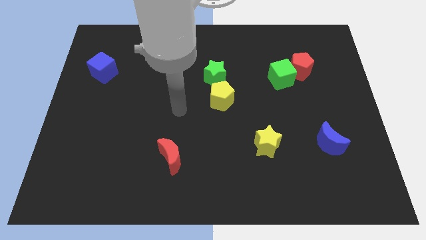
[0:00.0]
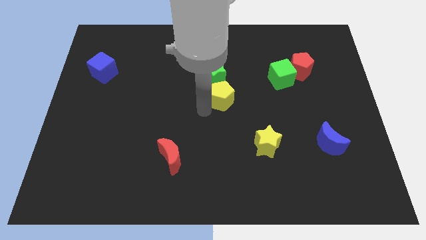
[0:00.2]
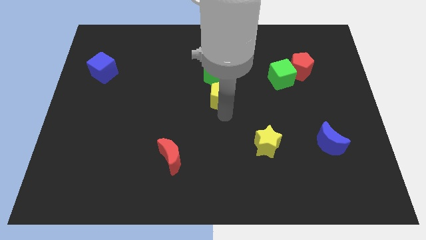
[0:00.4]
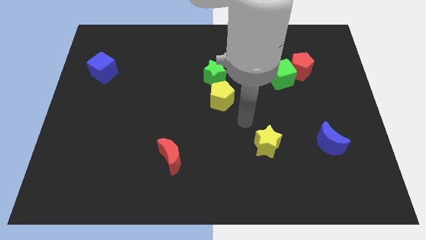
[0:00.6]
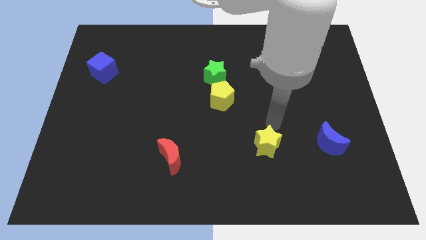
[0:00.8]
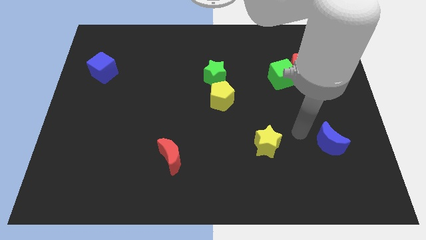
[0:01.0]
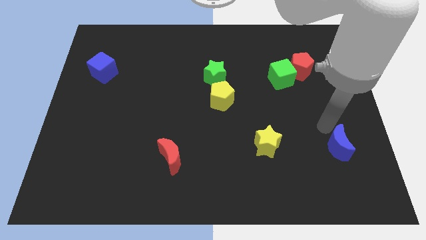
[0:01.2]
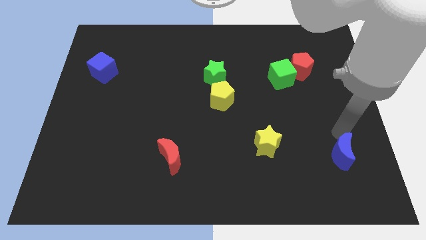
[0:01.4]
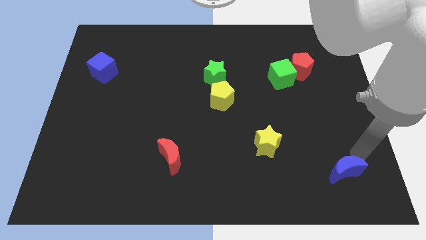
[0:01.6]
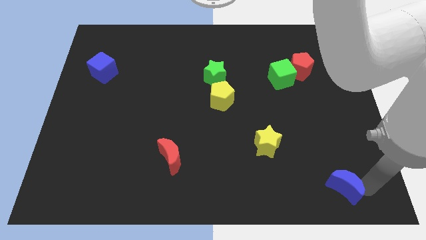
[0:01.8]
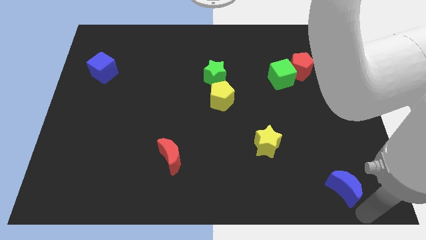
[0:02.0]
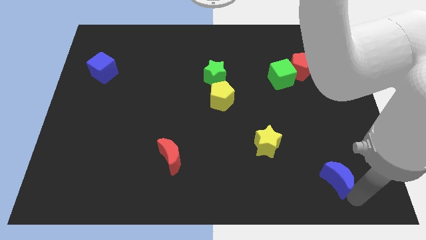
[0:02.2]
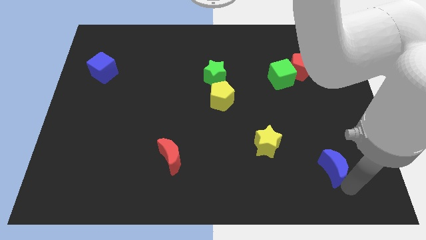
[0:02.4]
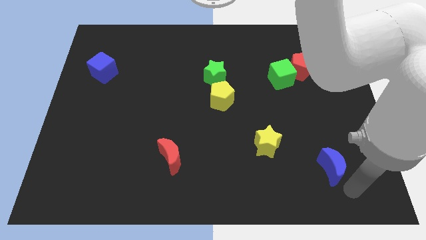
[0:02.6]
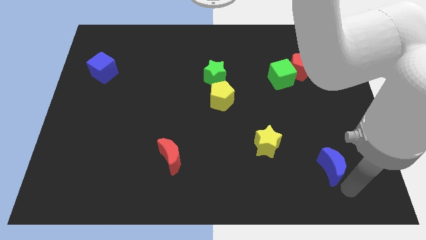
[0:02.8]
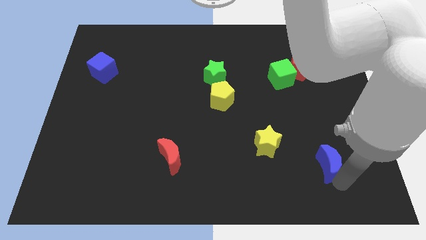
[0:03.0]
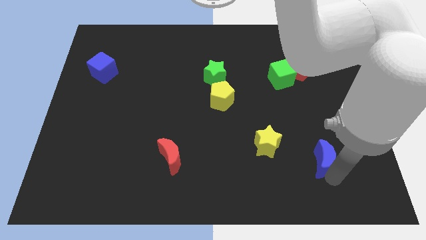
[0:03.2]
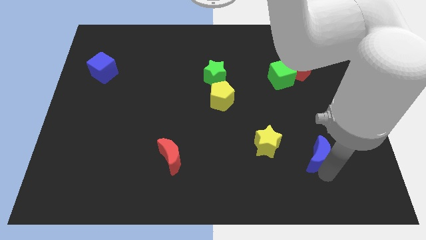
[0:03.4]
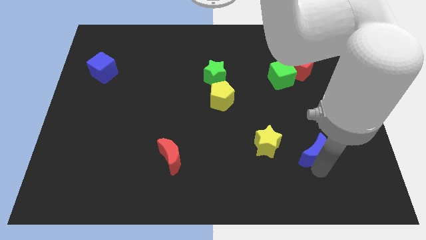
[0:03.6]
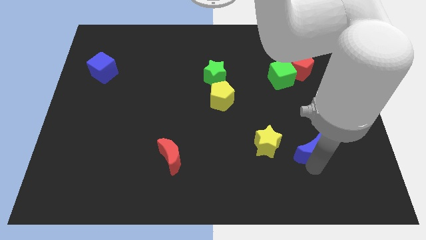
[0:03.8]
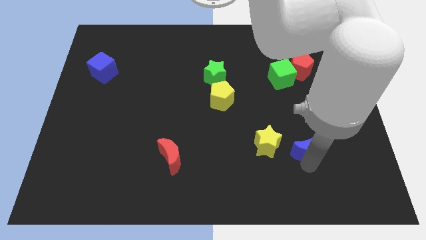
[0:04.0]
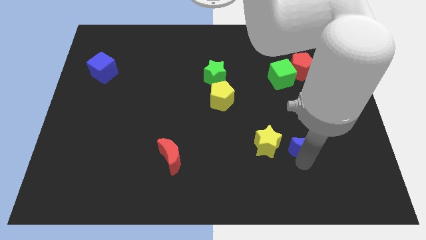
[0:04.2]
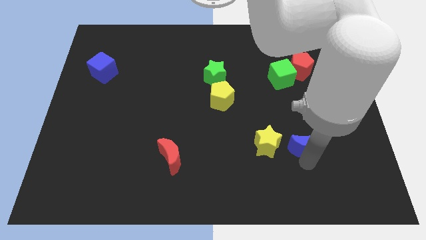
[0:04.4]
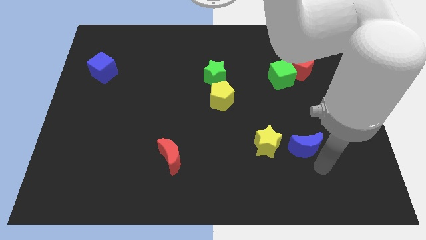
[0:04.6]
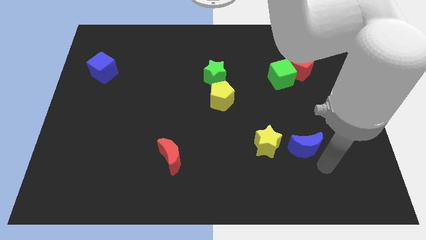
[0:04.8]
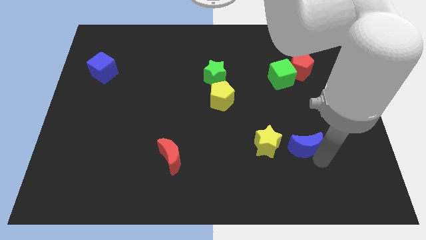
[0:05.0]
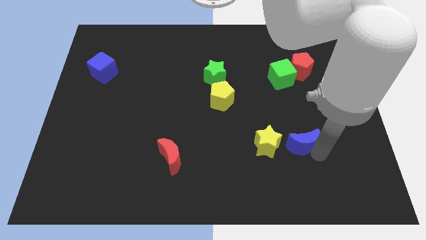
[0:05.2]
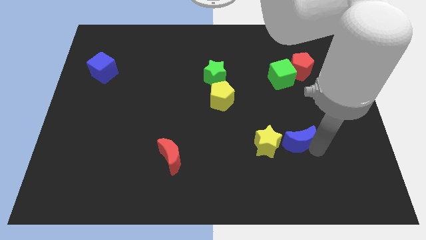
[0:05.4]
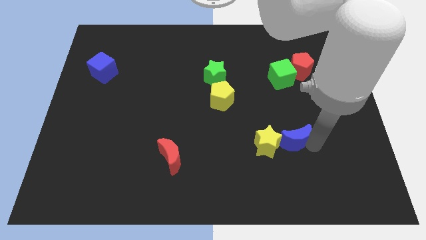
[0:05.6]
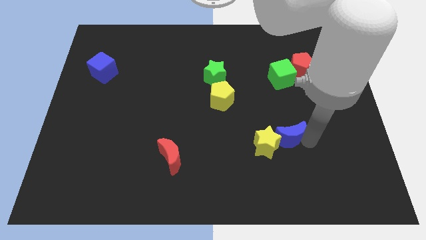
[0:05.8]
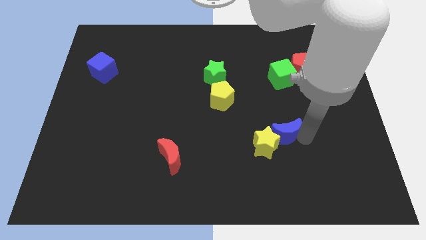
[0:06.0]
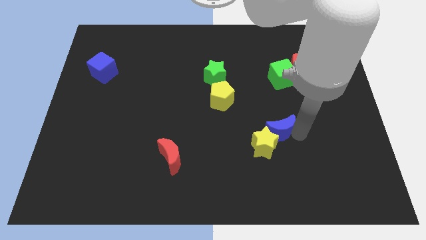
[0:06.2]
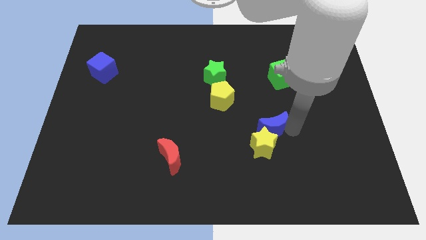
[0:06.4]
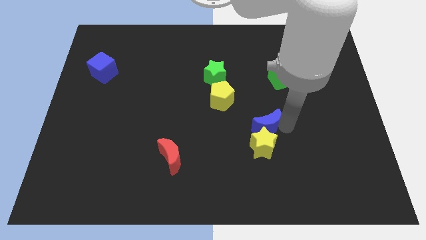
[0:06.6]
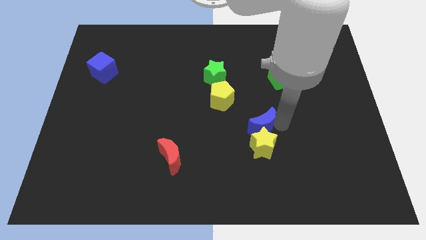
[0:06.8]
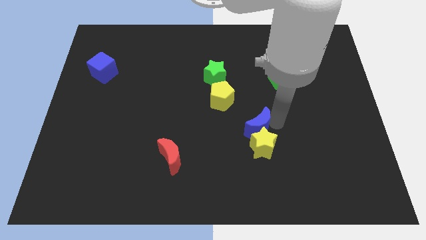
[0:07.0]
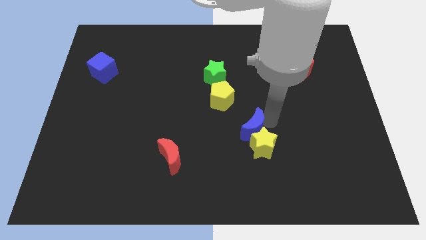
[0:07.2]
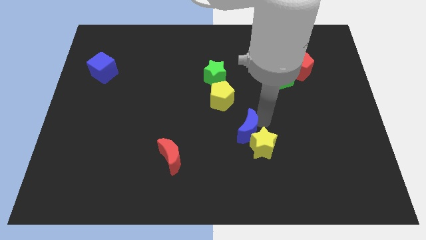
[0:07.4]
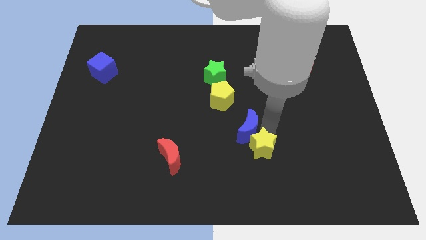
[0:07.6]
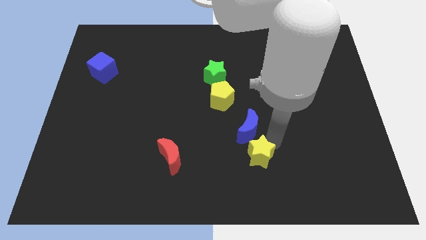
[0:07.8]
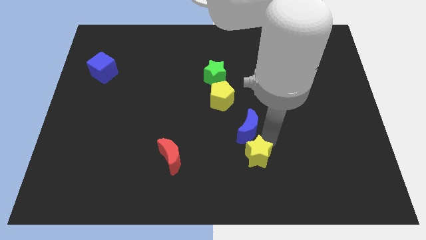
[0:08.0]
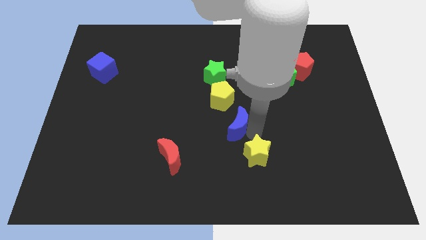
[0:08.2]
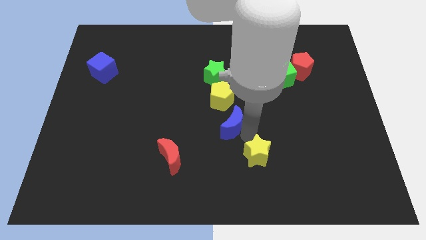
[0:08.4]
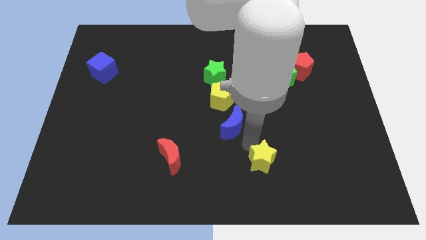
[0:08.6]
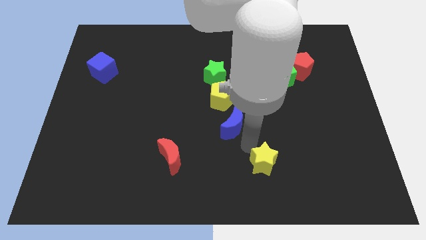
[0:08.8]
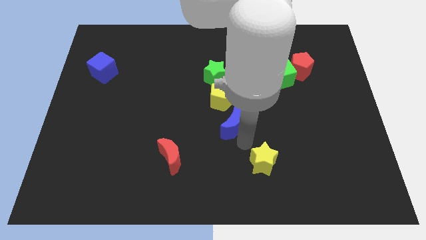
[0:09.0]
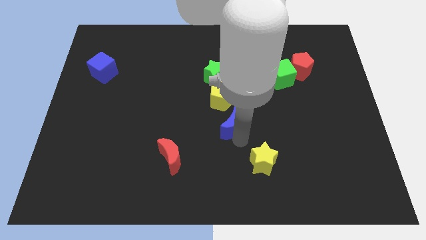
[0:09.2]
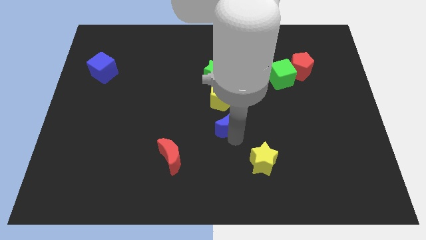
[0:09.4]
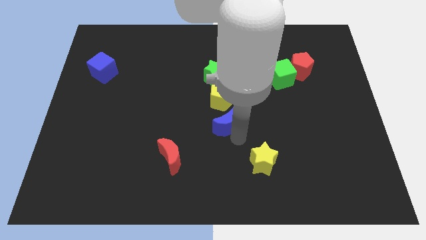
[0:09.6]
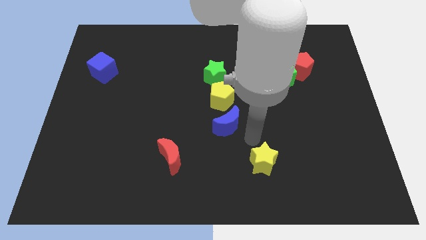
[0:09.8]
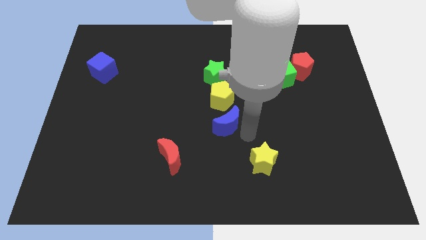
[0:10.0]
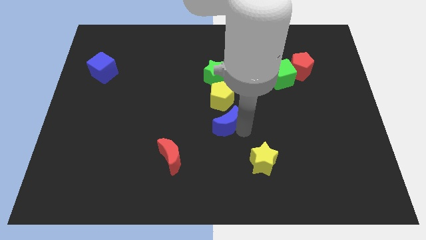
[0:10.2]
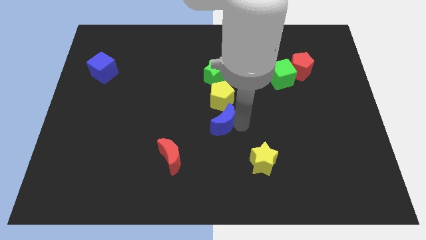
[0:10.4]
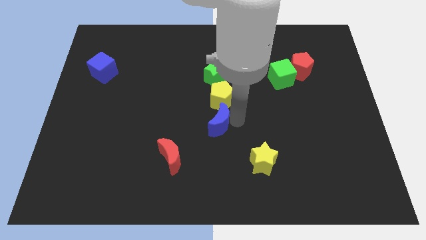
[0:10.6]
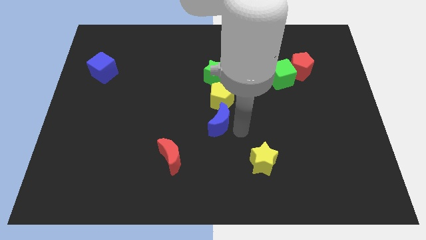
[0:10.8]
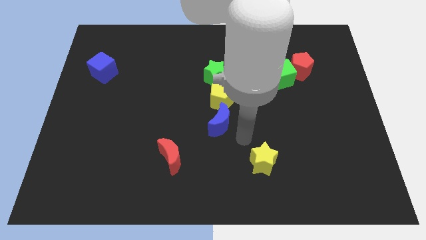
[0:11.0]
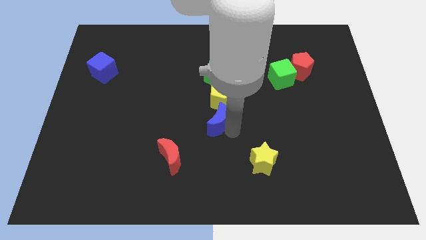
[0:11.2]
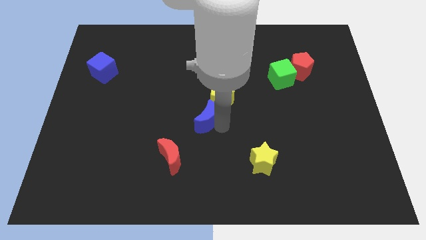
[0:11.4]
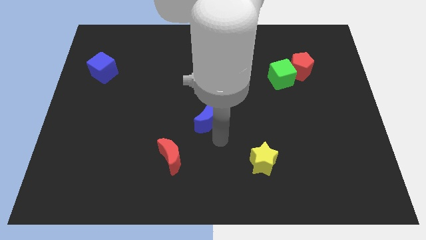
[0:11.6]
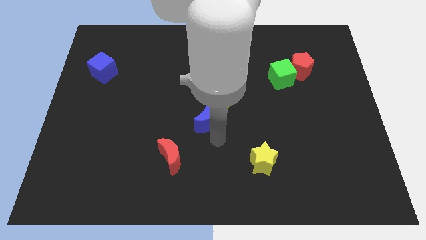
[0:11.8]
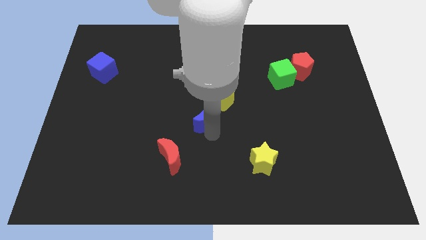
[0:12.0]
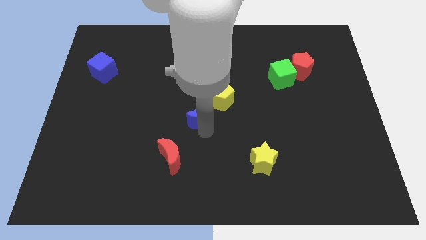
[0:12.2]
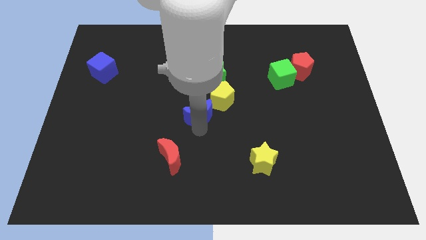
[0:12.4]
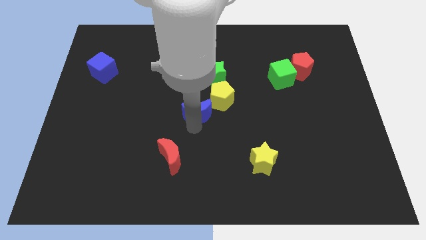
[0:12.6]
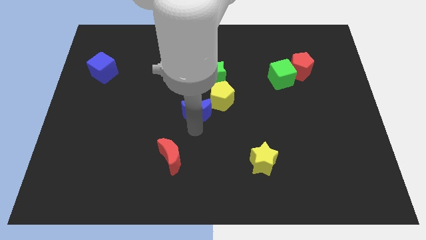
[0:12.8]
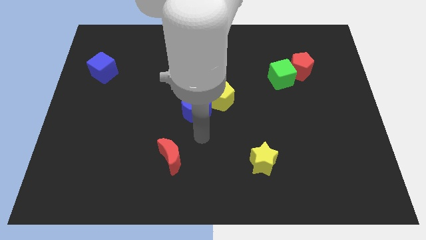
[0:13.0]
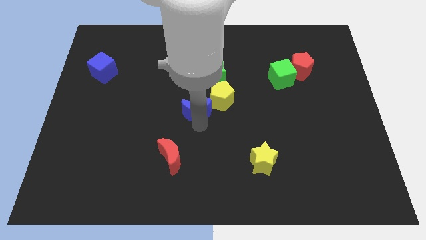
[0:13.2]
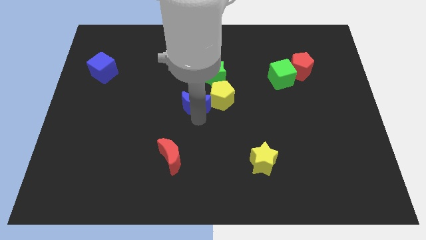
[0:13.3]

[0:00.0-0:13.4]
put the blue moon diagonally down and to the left of the green star

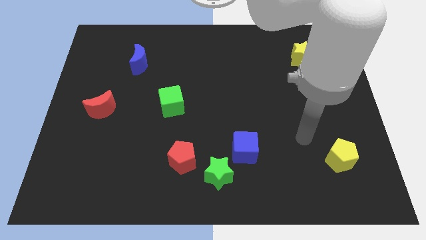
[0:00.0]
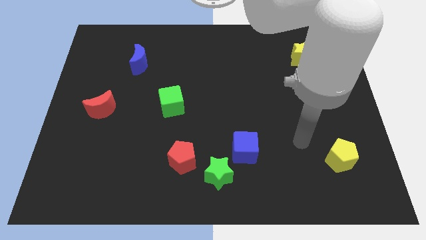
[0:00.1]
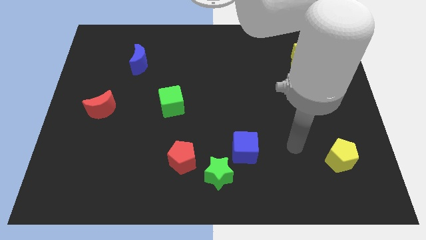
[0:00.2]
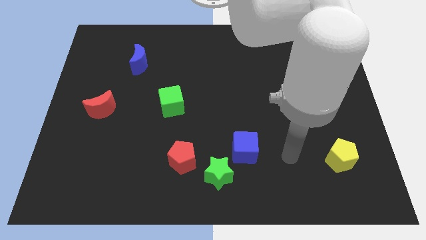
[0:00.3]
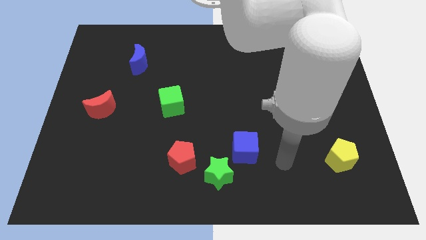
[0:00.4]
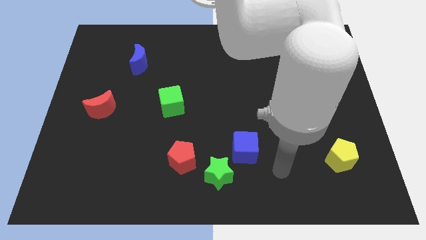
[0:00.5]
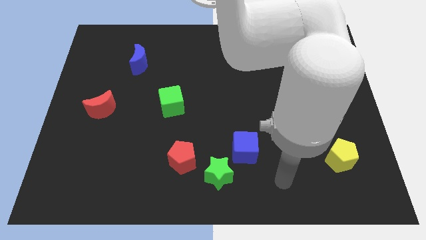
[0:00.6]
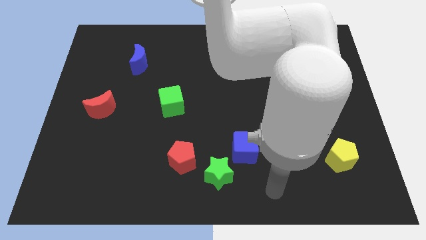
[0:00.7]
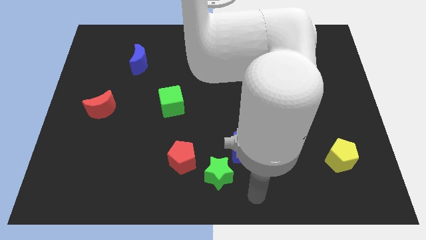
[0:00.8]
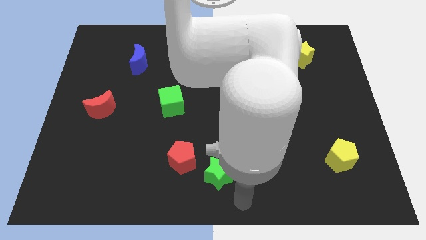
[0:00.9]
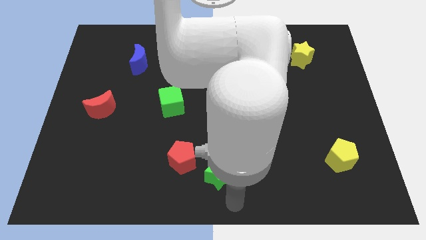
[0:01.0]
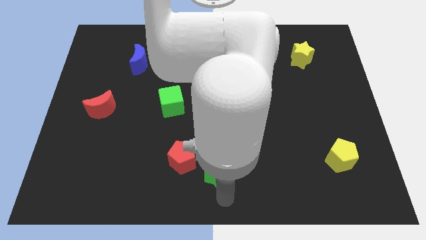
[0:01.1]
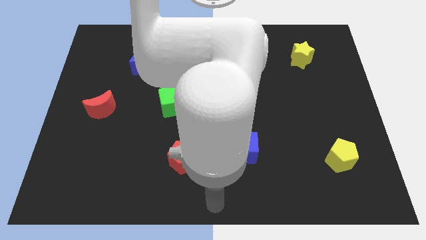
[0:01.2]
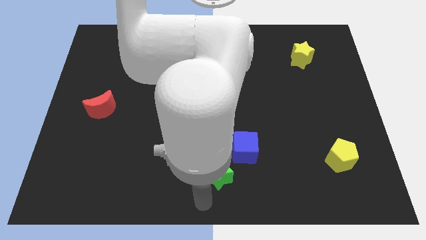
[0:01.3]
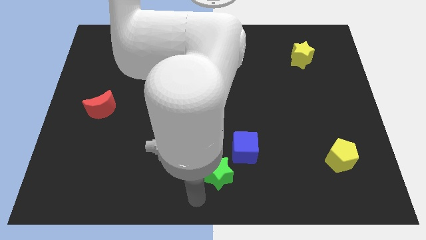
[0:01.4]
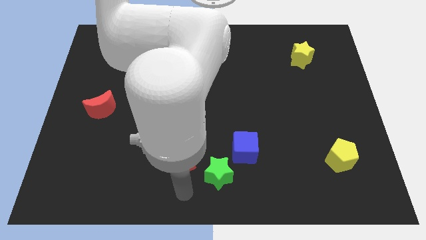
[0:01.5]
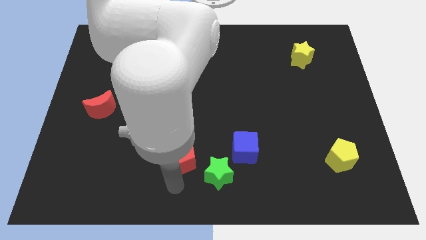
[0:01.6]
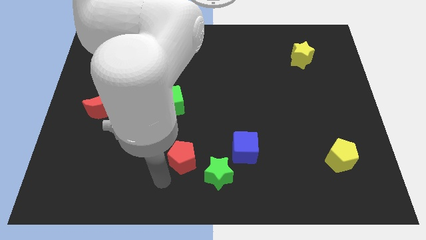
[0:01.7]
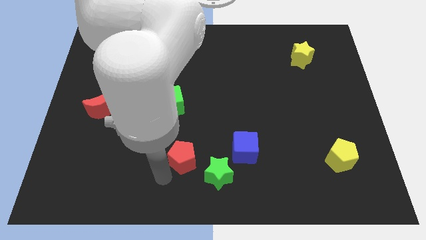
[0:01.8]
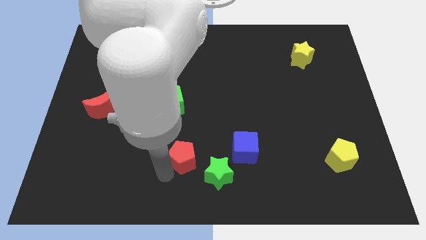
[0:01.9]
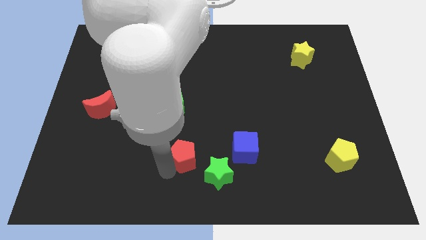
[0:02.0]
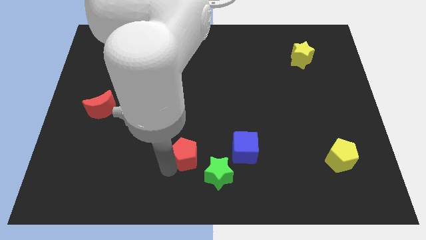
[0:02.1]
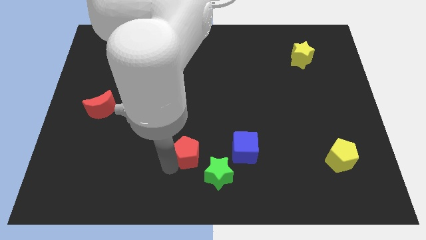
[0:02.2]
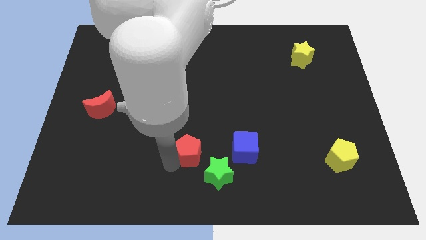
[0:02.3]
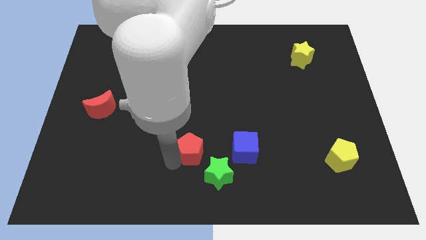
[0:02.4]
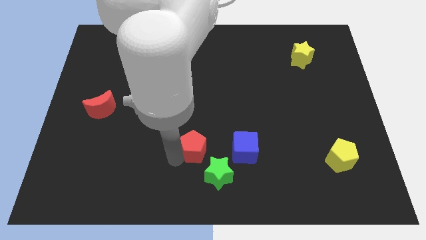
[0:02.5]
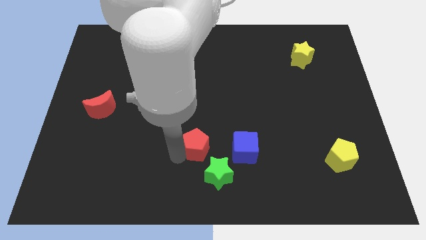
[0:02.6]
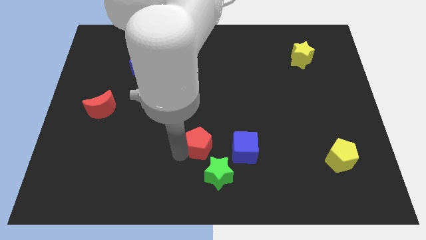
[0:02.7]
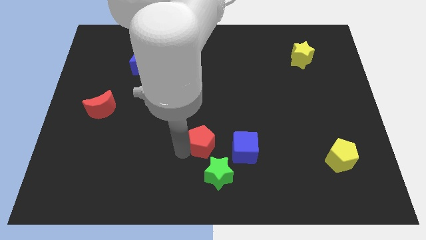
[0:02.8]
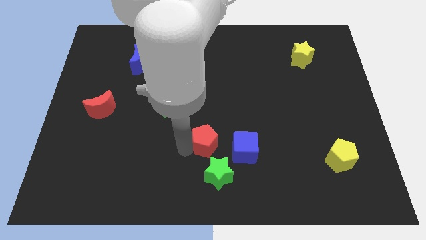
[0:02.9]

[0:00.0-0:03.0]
put the red pentagon to the top left side of the blue cube
